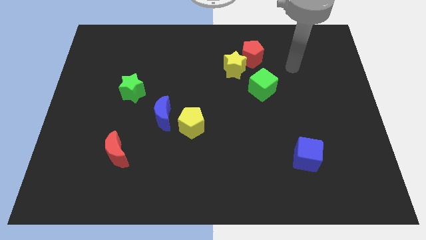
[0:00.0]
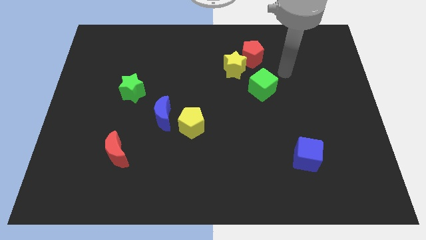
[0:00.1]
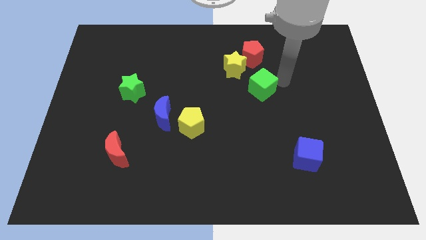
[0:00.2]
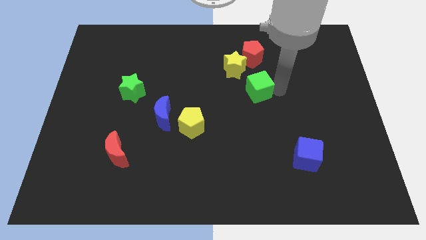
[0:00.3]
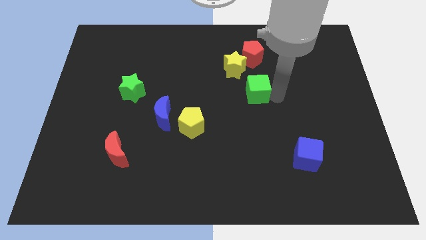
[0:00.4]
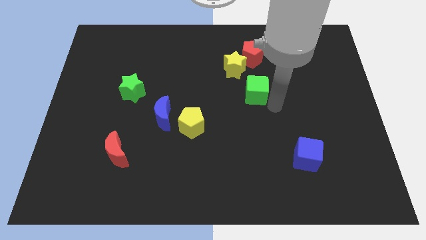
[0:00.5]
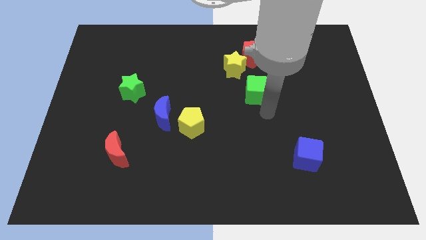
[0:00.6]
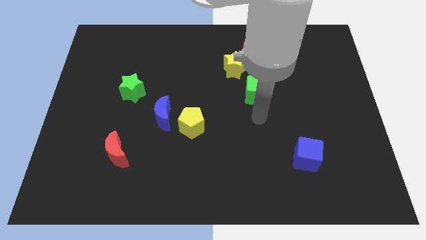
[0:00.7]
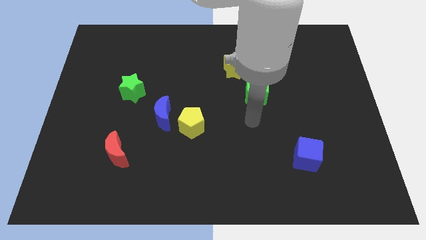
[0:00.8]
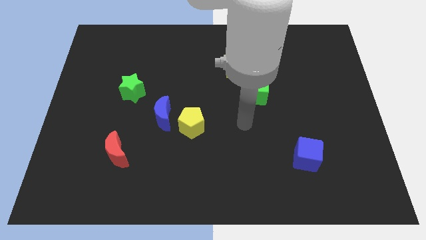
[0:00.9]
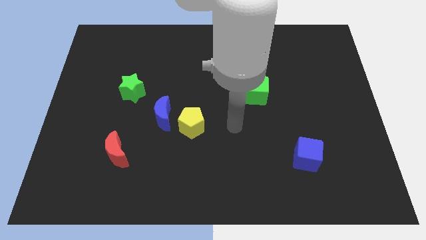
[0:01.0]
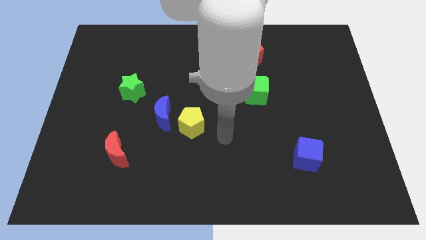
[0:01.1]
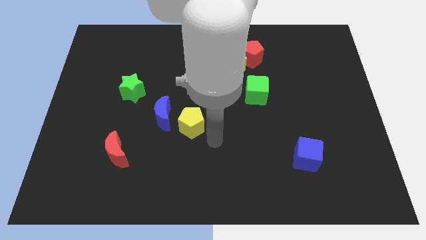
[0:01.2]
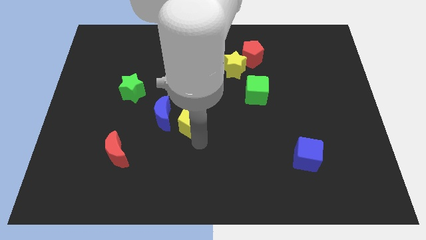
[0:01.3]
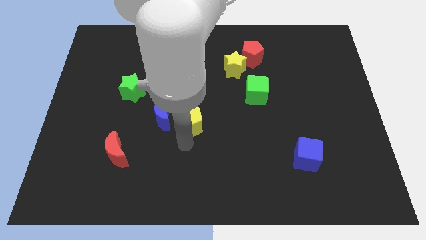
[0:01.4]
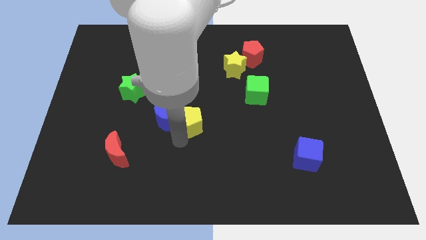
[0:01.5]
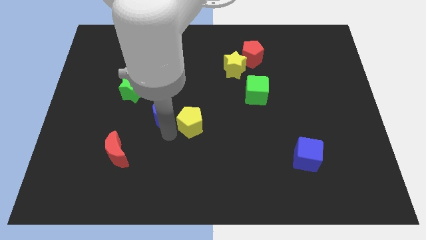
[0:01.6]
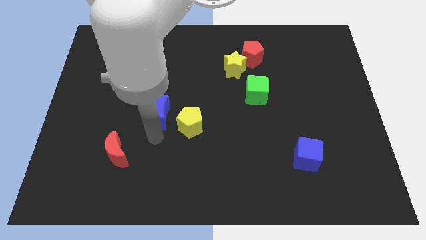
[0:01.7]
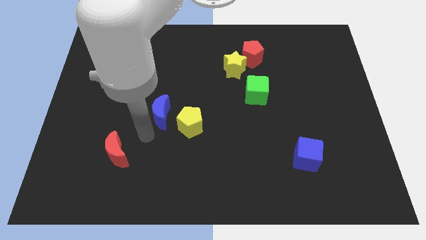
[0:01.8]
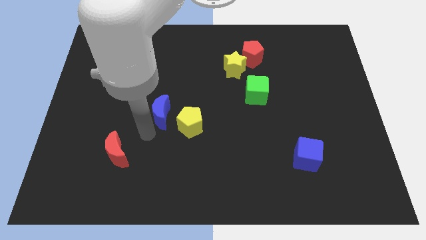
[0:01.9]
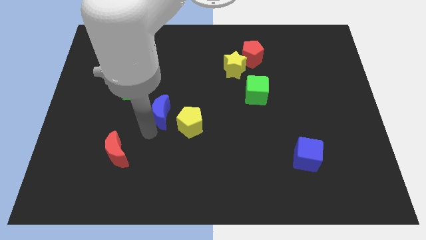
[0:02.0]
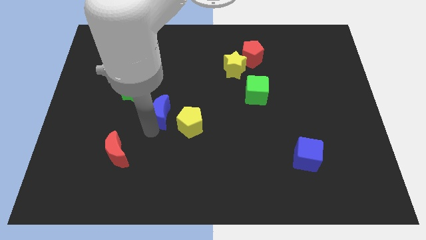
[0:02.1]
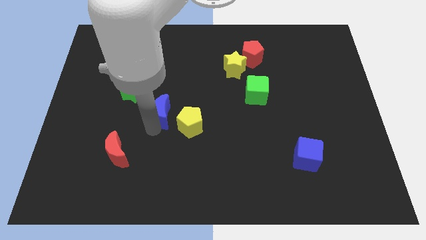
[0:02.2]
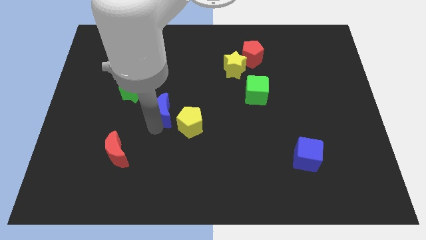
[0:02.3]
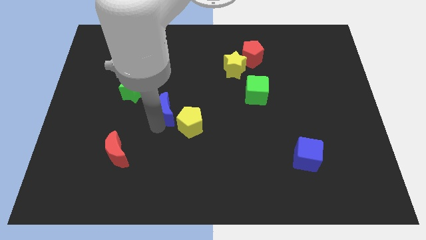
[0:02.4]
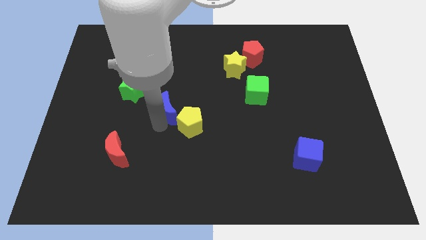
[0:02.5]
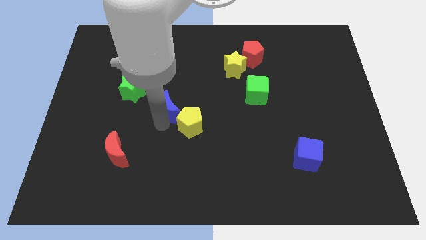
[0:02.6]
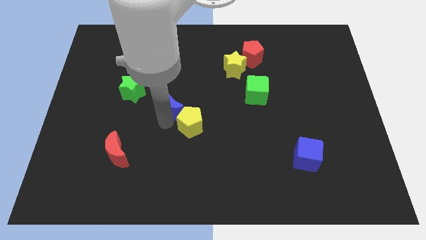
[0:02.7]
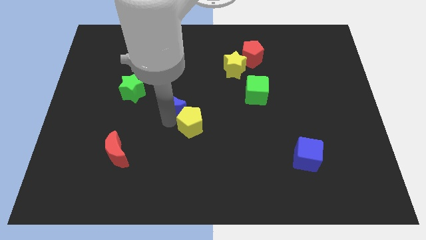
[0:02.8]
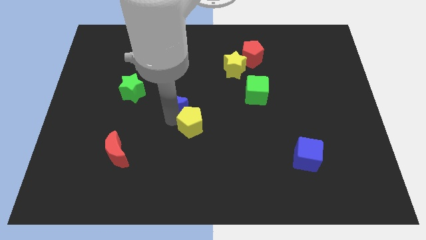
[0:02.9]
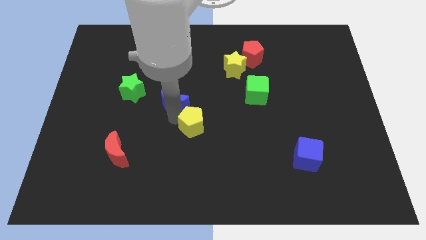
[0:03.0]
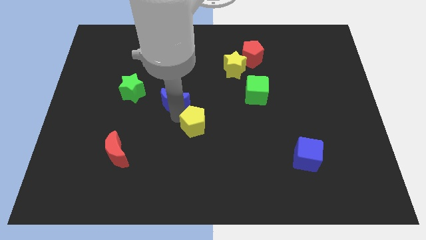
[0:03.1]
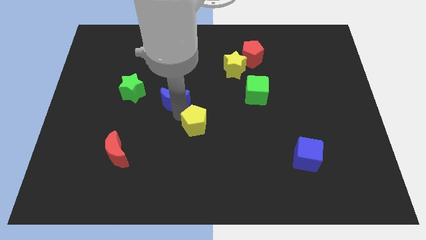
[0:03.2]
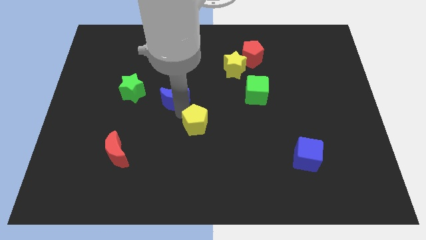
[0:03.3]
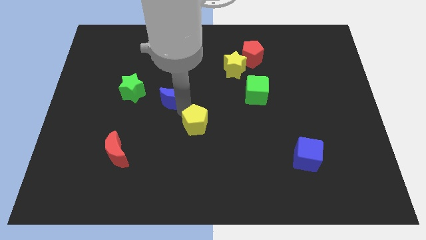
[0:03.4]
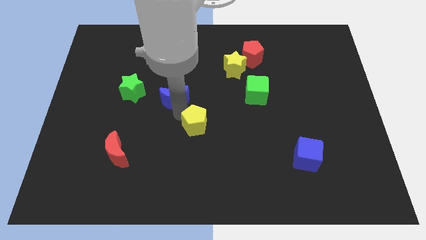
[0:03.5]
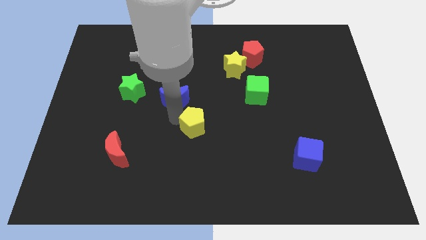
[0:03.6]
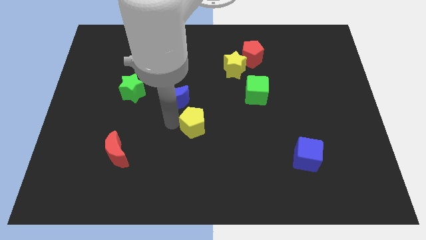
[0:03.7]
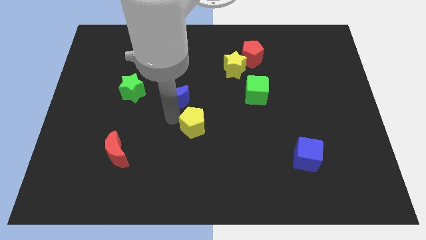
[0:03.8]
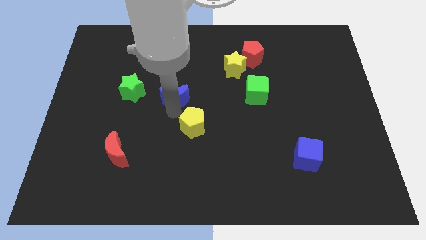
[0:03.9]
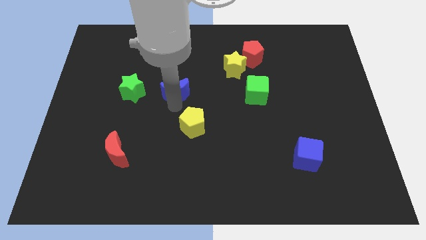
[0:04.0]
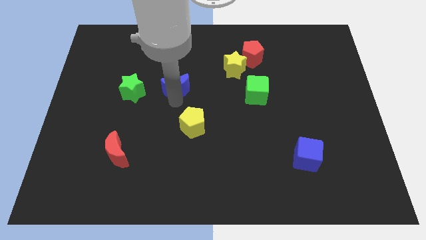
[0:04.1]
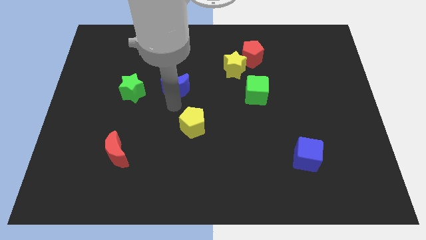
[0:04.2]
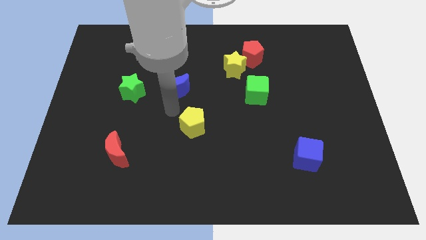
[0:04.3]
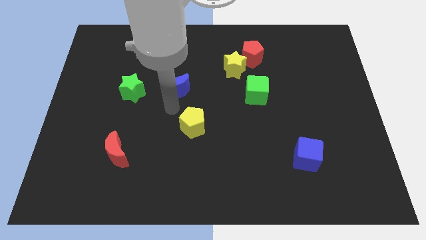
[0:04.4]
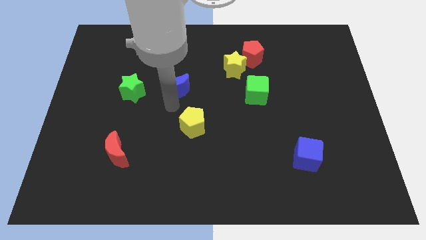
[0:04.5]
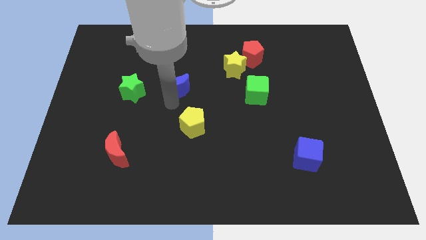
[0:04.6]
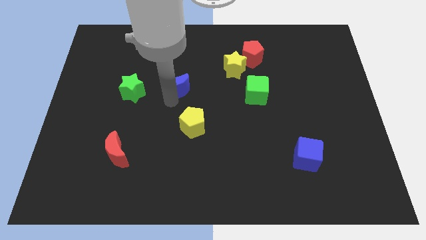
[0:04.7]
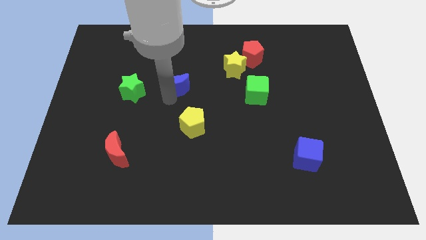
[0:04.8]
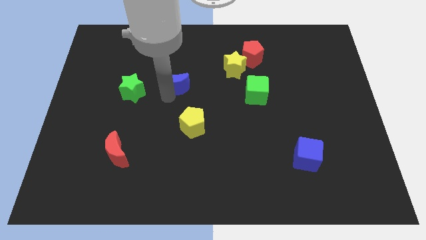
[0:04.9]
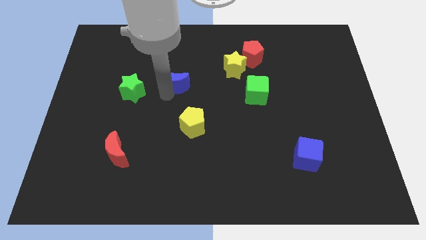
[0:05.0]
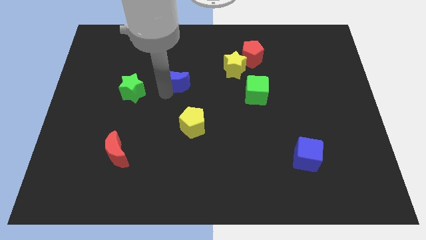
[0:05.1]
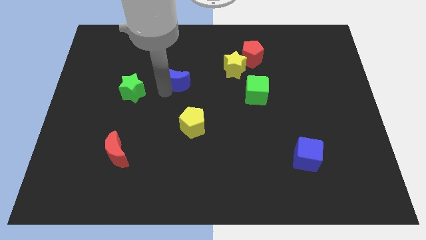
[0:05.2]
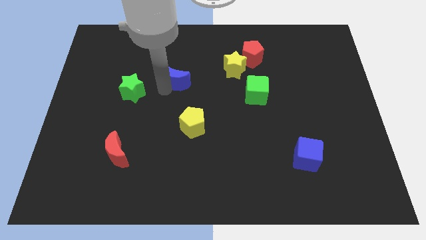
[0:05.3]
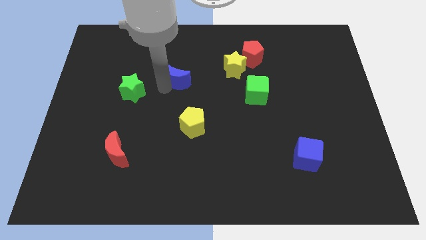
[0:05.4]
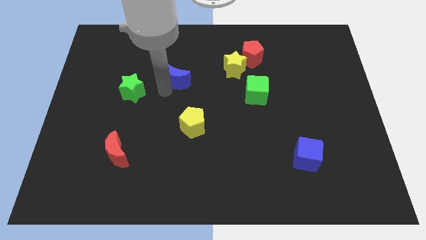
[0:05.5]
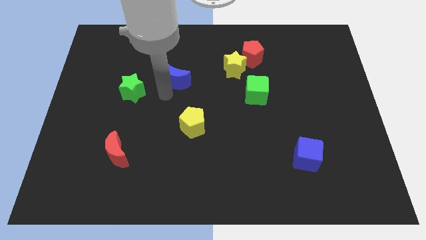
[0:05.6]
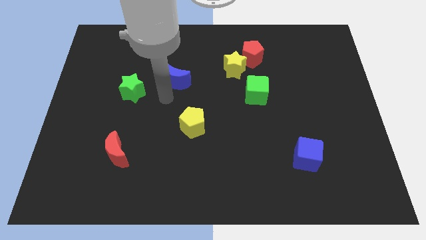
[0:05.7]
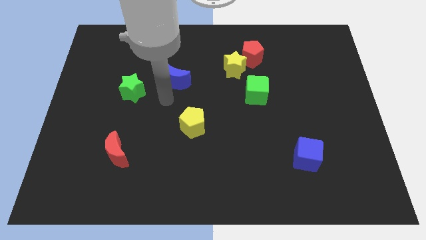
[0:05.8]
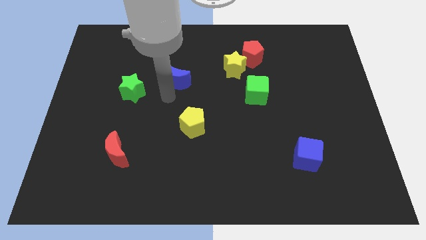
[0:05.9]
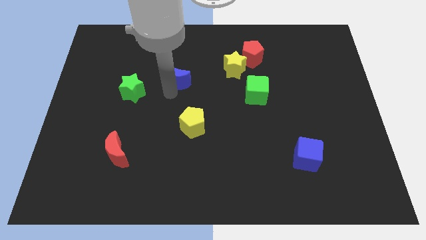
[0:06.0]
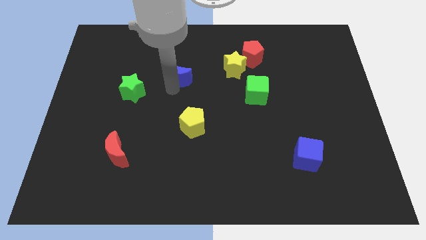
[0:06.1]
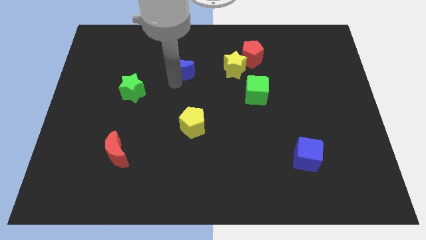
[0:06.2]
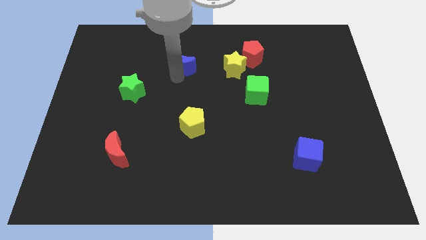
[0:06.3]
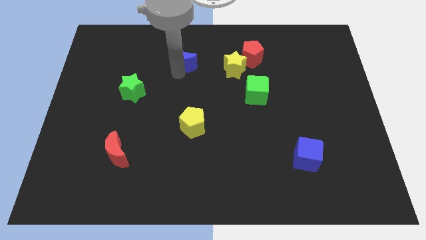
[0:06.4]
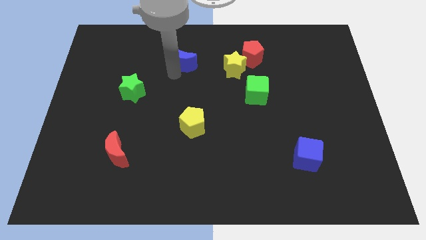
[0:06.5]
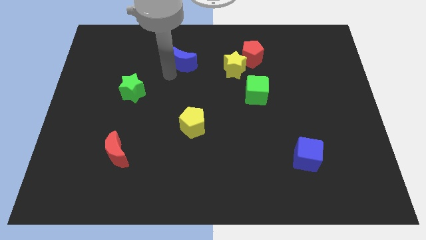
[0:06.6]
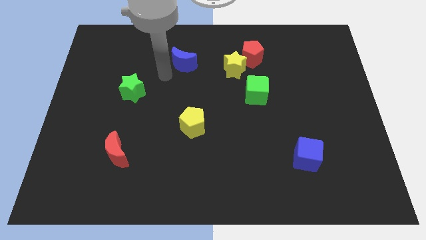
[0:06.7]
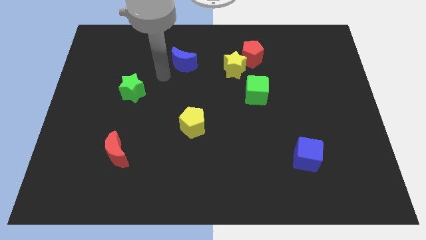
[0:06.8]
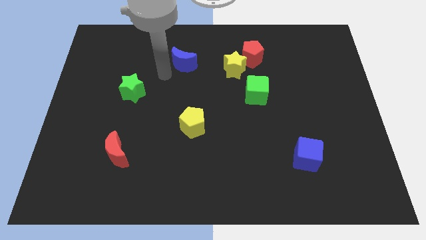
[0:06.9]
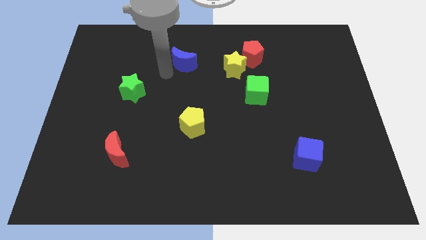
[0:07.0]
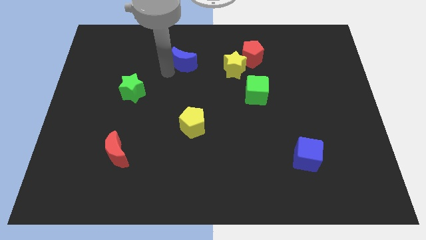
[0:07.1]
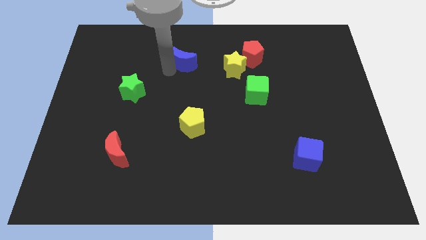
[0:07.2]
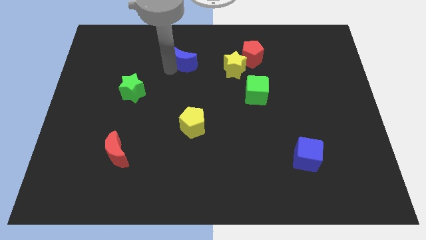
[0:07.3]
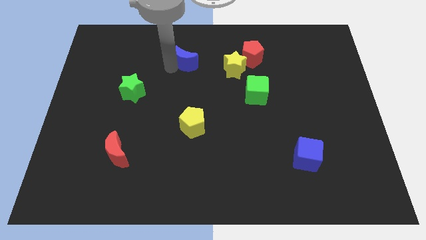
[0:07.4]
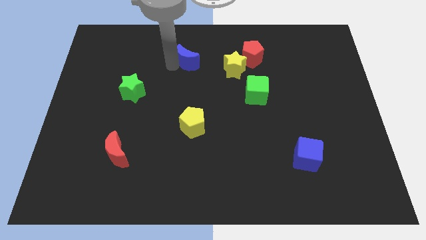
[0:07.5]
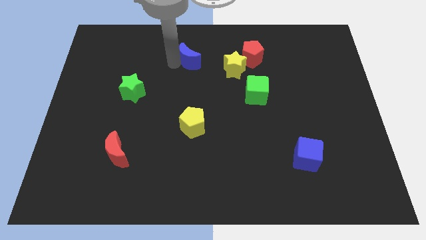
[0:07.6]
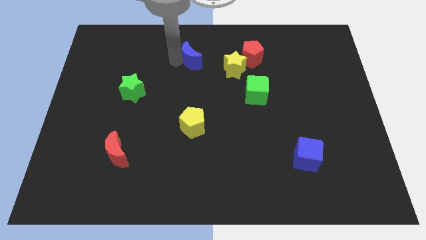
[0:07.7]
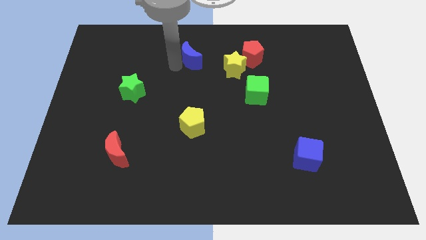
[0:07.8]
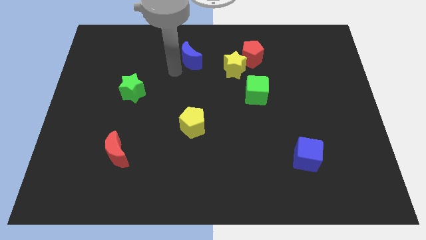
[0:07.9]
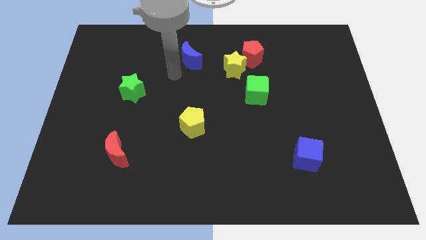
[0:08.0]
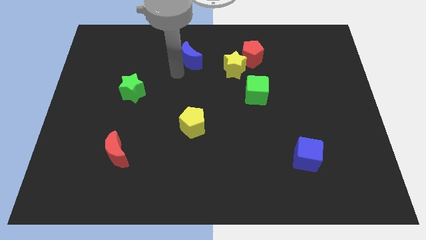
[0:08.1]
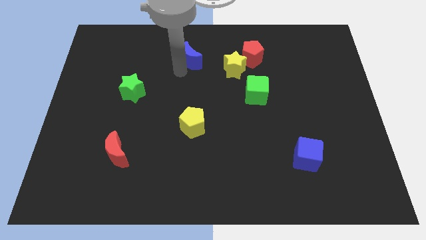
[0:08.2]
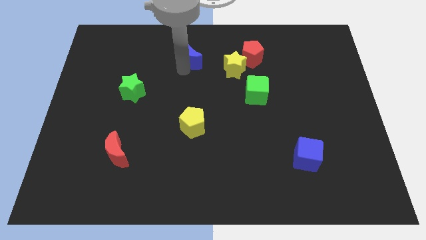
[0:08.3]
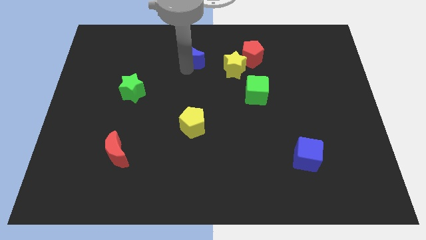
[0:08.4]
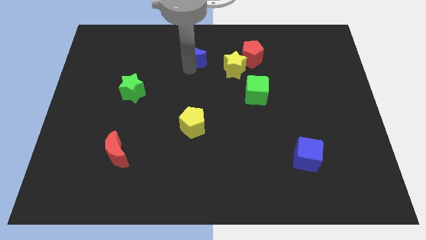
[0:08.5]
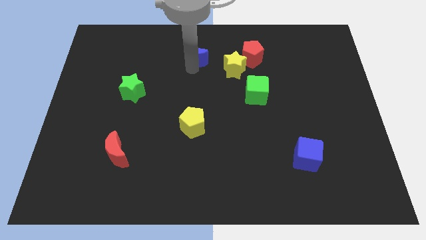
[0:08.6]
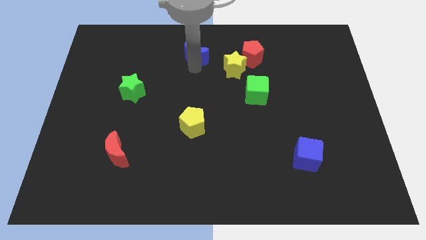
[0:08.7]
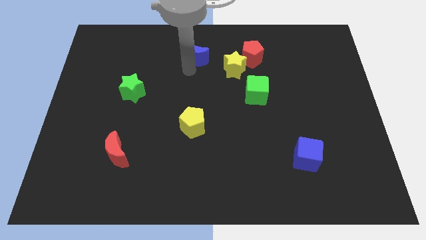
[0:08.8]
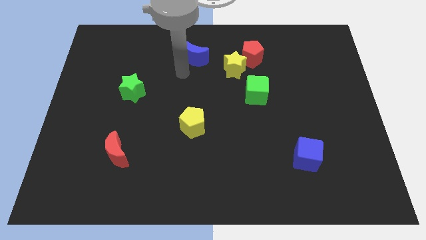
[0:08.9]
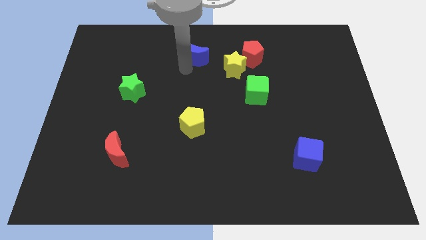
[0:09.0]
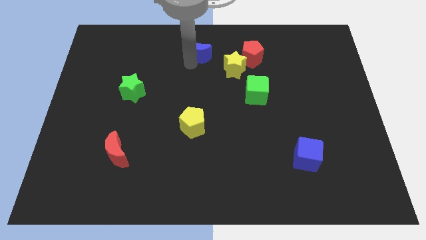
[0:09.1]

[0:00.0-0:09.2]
move the blue moon to the top
